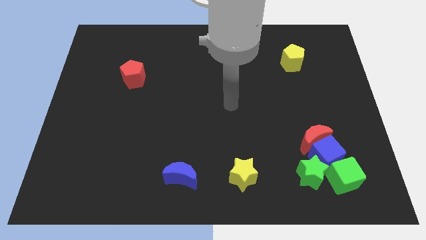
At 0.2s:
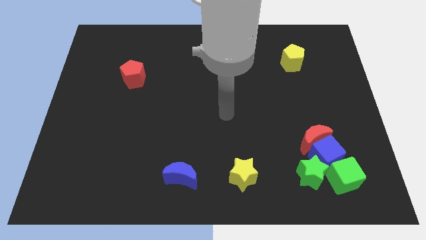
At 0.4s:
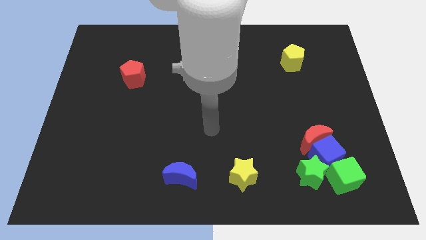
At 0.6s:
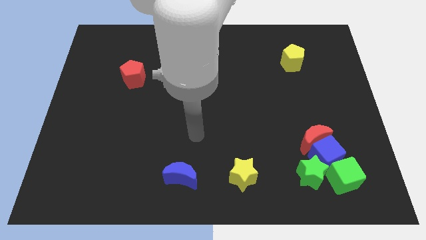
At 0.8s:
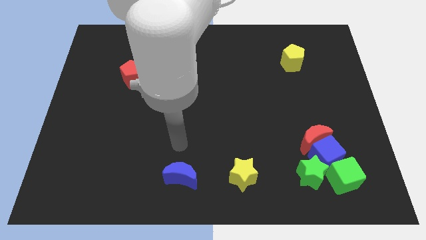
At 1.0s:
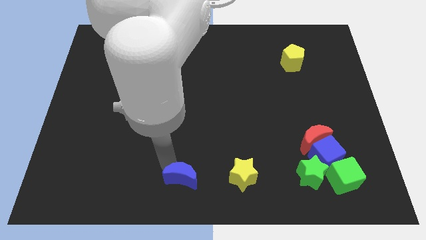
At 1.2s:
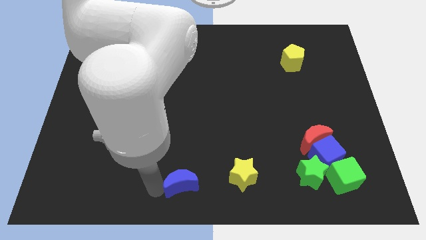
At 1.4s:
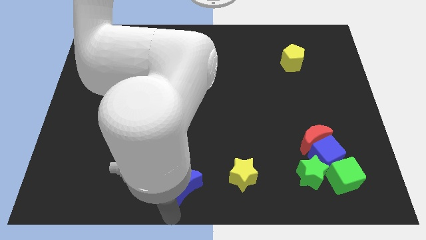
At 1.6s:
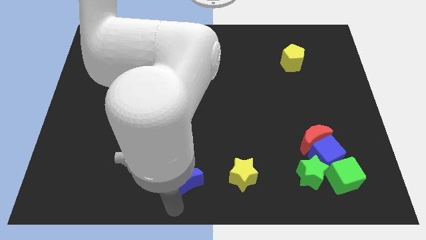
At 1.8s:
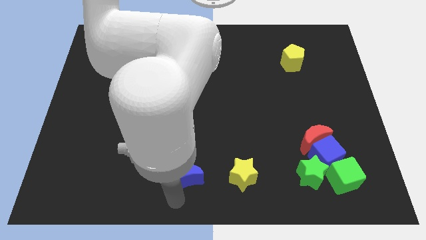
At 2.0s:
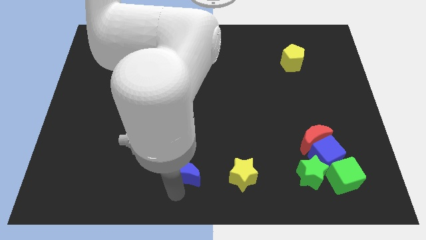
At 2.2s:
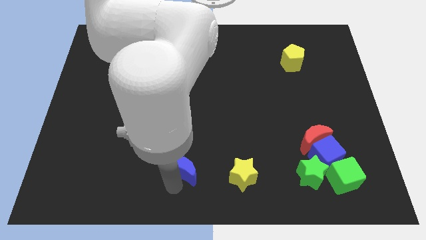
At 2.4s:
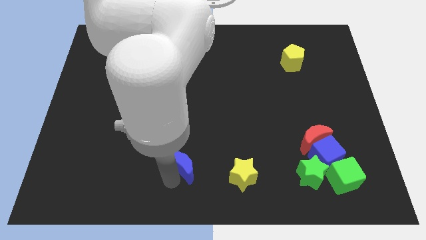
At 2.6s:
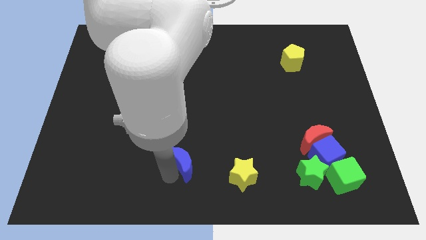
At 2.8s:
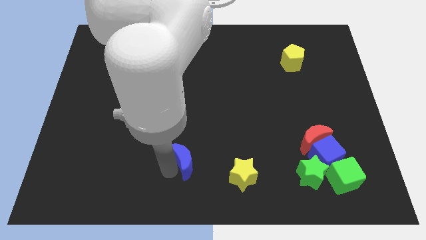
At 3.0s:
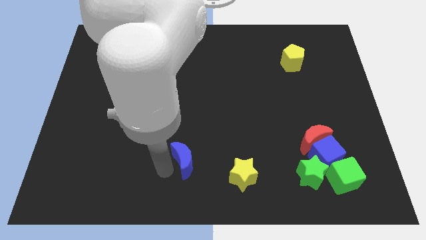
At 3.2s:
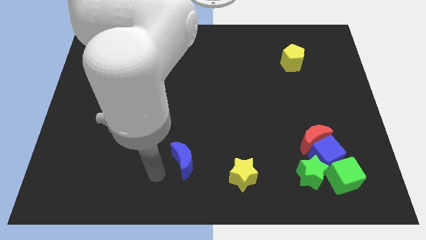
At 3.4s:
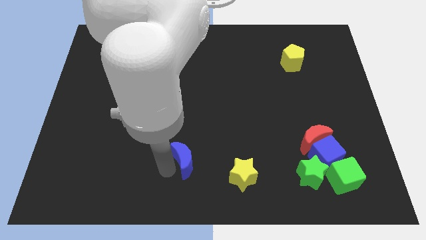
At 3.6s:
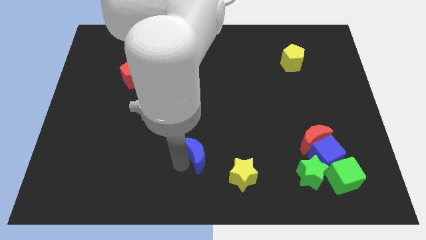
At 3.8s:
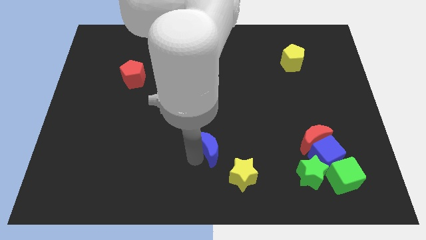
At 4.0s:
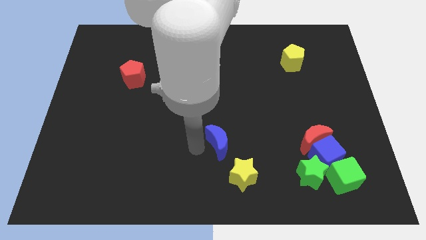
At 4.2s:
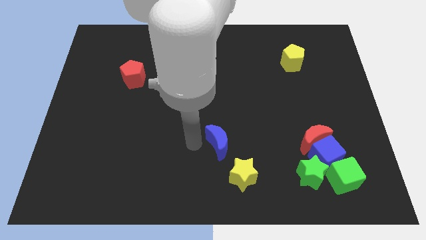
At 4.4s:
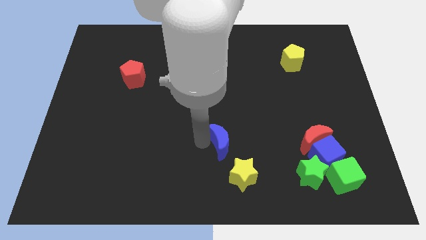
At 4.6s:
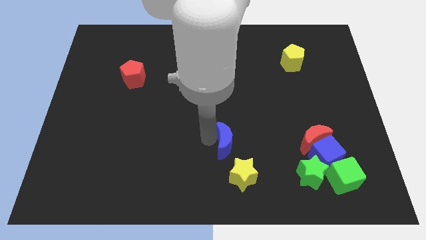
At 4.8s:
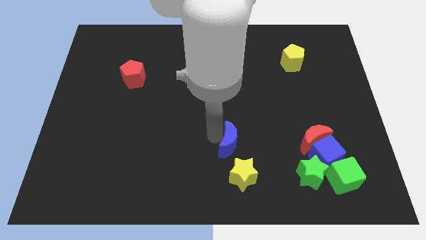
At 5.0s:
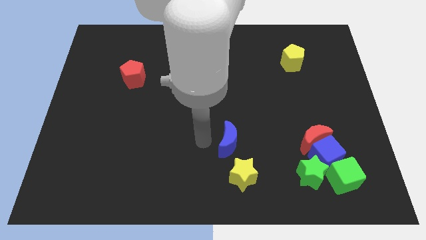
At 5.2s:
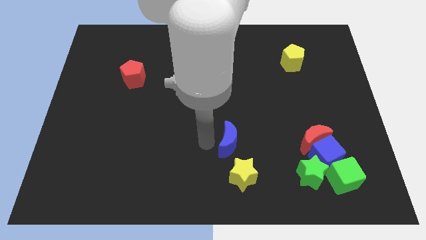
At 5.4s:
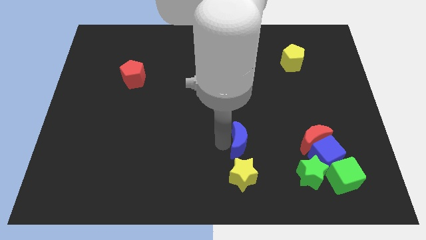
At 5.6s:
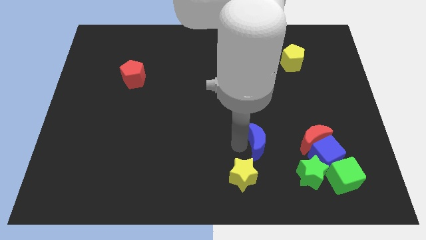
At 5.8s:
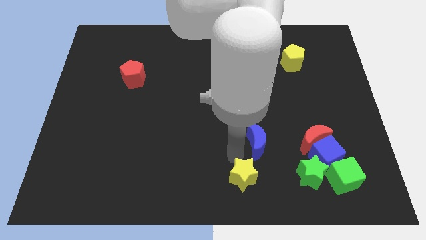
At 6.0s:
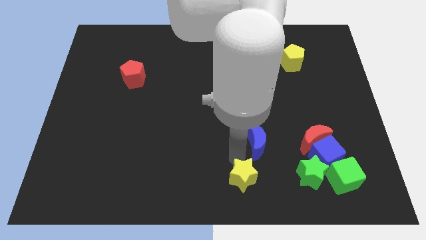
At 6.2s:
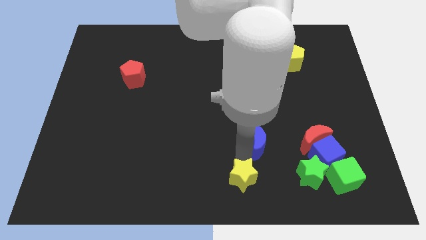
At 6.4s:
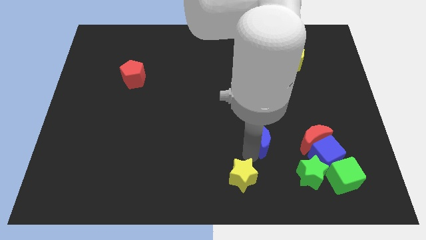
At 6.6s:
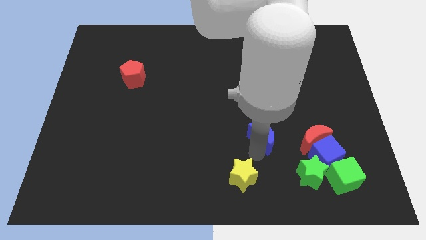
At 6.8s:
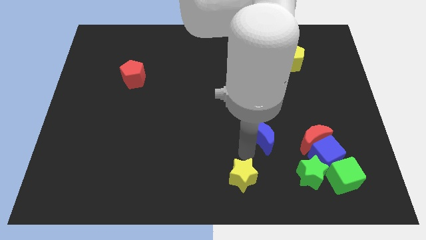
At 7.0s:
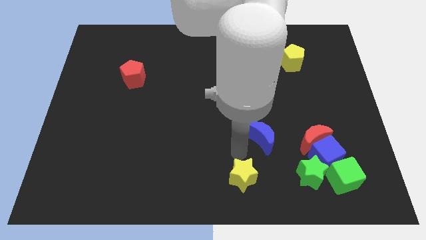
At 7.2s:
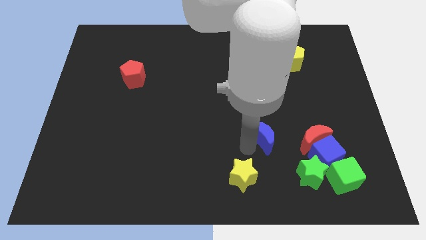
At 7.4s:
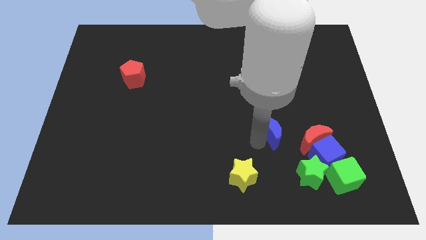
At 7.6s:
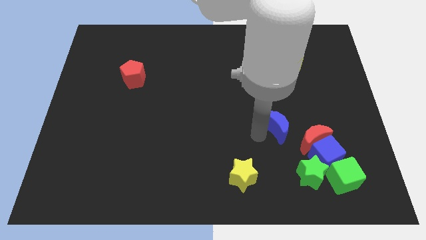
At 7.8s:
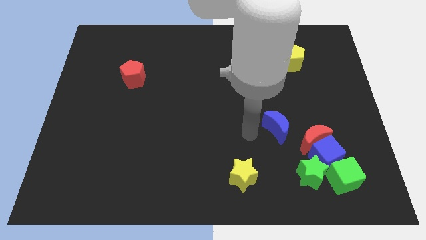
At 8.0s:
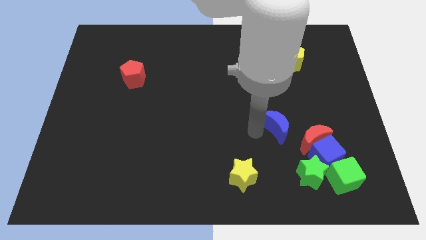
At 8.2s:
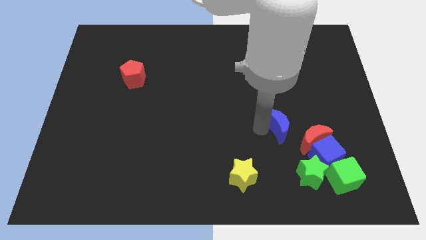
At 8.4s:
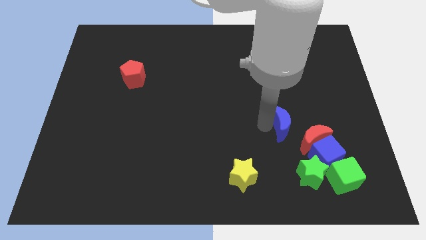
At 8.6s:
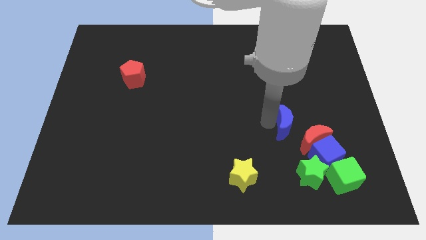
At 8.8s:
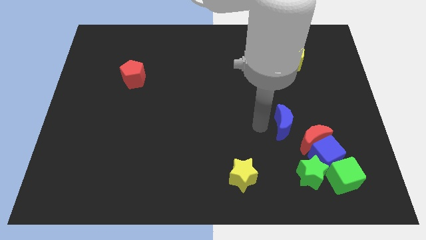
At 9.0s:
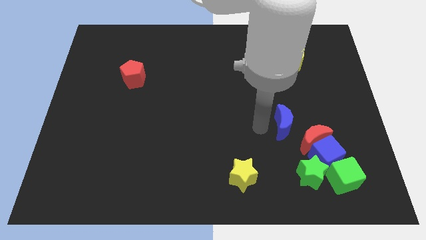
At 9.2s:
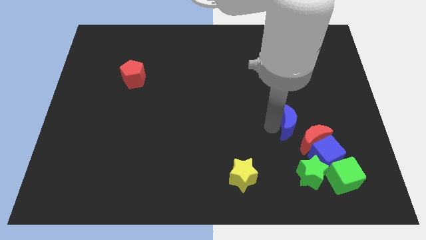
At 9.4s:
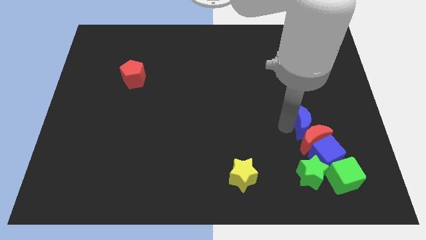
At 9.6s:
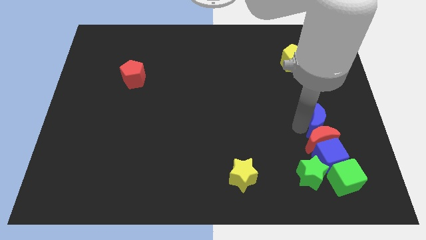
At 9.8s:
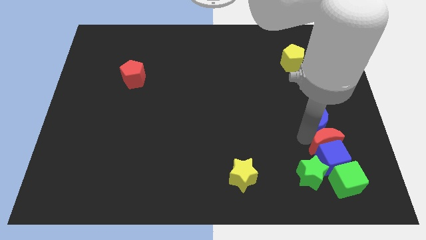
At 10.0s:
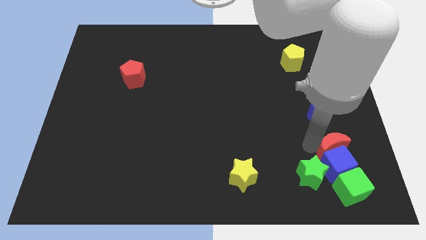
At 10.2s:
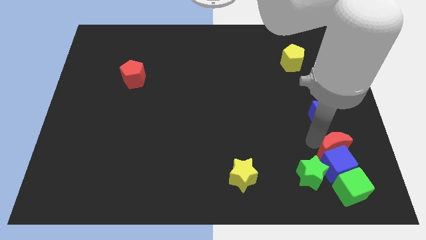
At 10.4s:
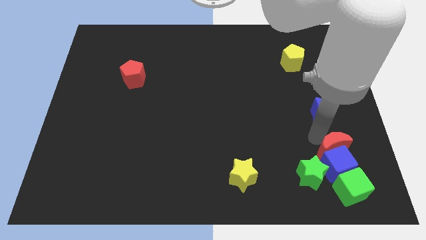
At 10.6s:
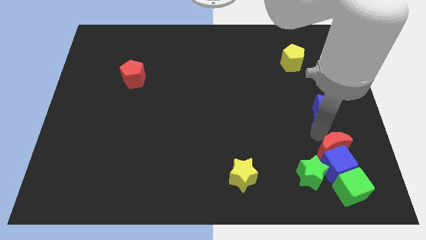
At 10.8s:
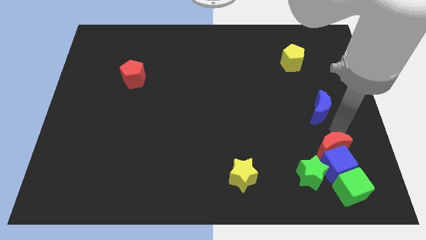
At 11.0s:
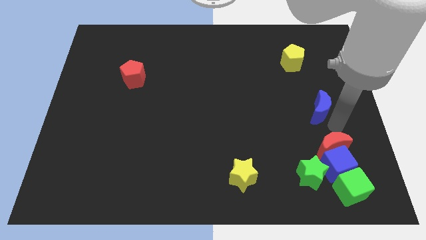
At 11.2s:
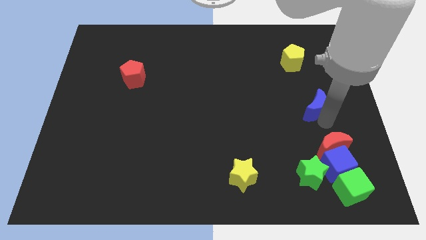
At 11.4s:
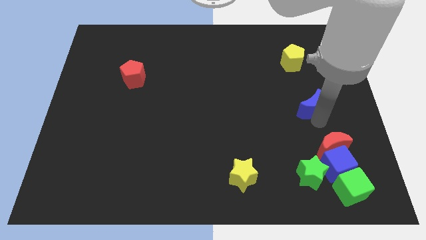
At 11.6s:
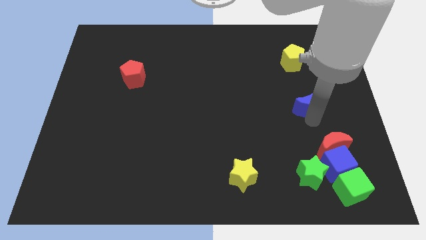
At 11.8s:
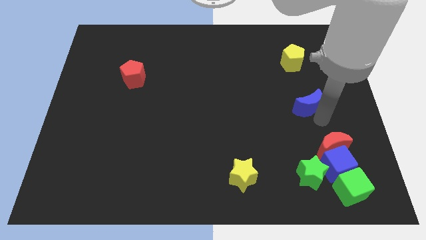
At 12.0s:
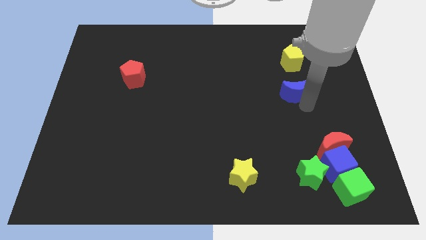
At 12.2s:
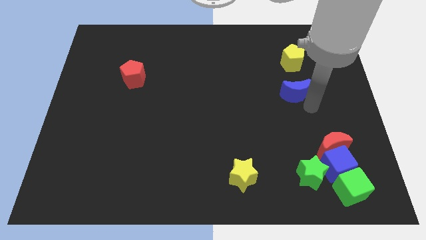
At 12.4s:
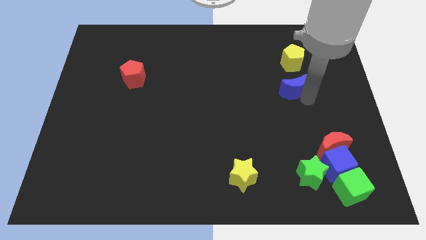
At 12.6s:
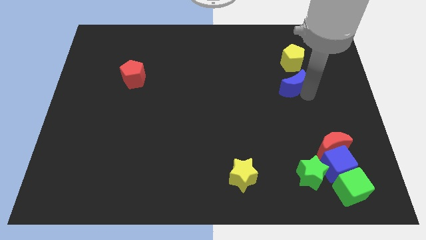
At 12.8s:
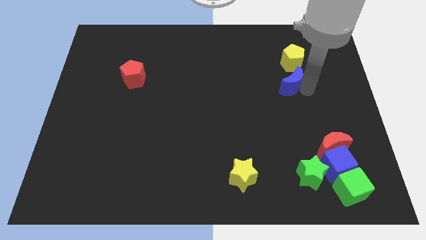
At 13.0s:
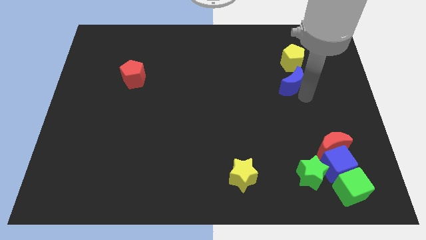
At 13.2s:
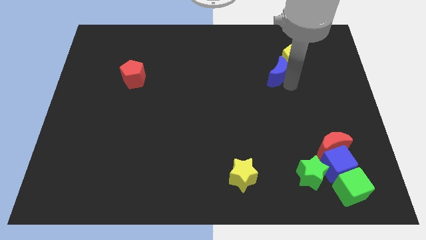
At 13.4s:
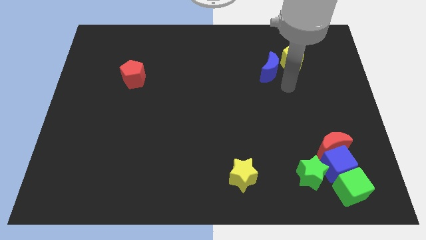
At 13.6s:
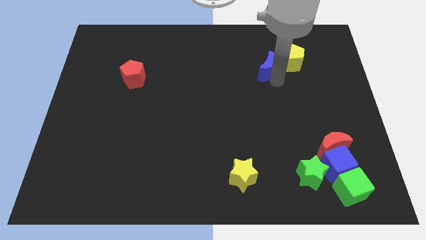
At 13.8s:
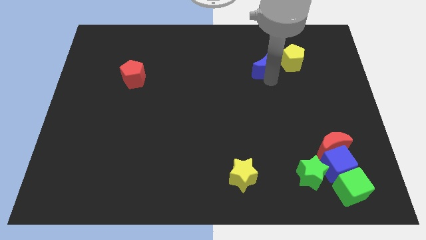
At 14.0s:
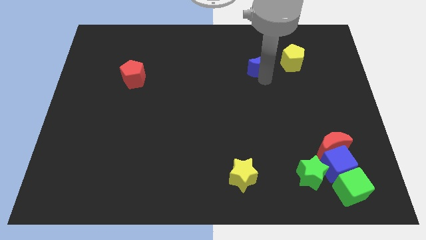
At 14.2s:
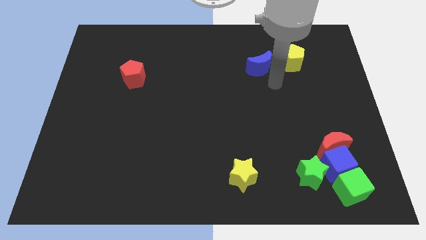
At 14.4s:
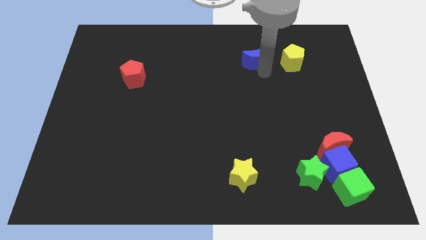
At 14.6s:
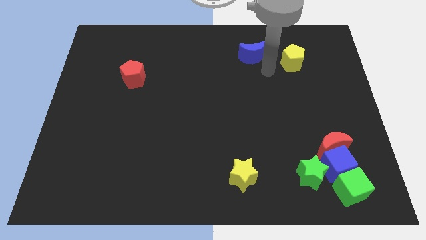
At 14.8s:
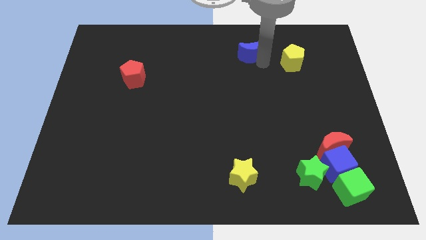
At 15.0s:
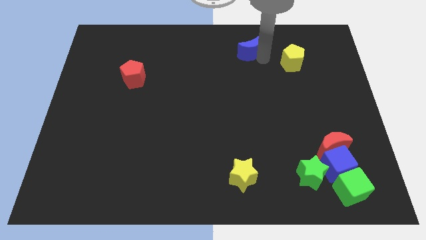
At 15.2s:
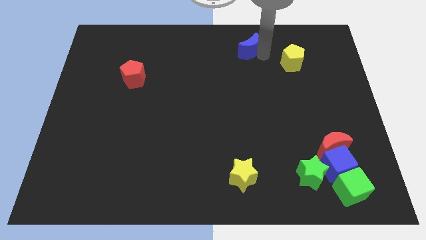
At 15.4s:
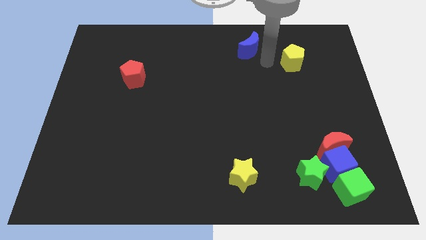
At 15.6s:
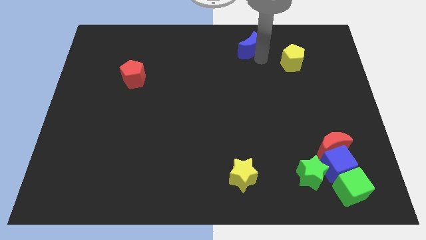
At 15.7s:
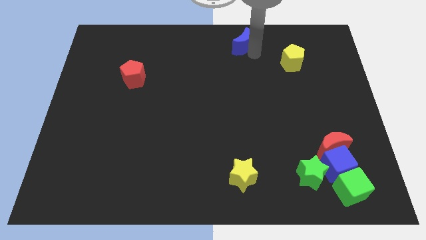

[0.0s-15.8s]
put the blue moon to the top
